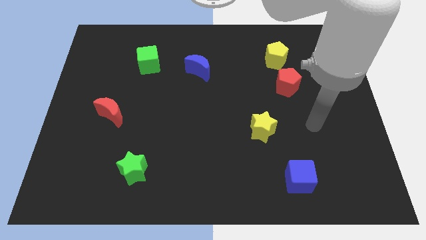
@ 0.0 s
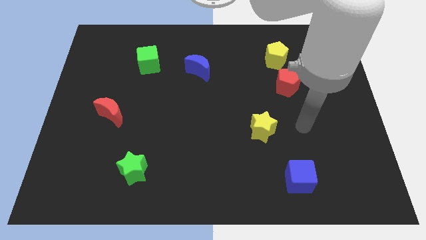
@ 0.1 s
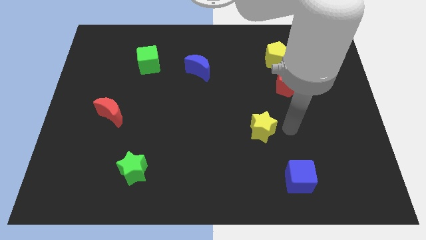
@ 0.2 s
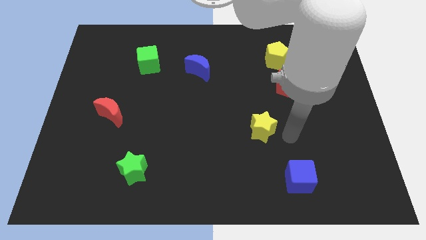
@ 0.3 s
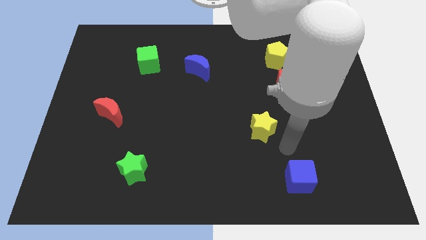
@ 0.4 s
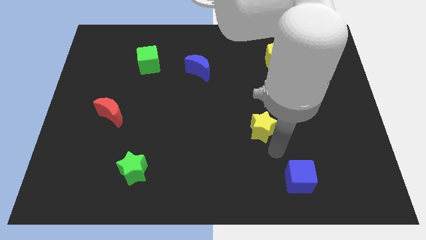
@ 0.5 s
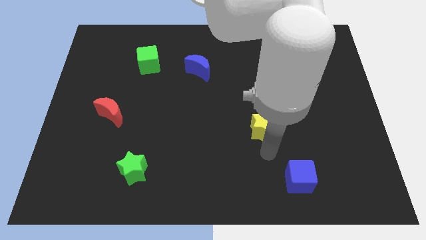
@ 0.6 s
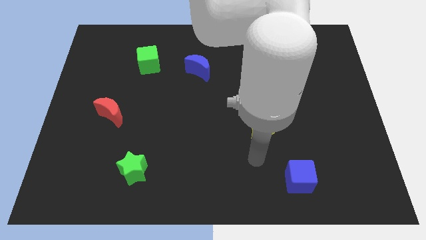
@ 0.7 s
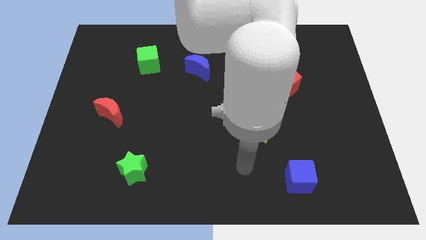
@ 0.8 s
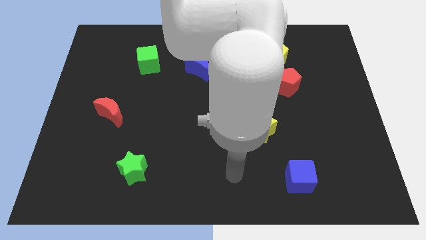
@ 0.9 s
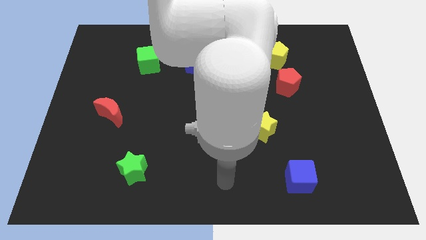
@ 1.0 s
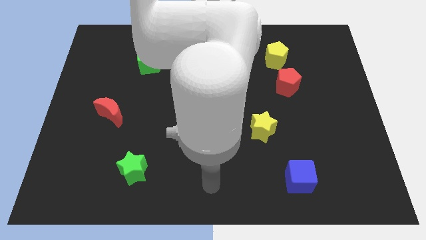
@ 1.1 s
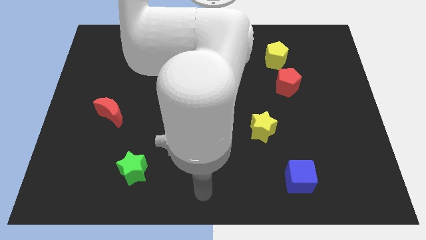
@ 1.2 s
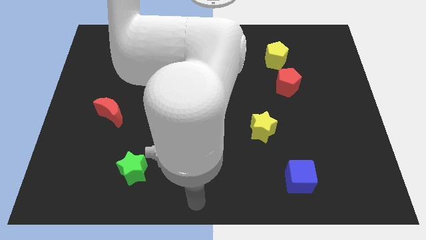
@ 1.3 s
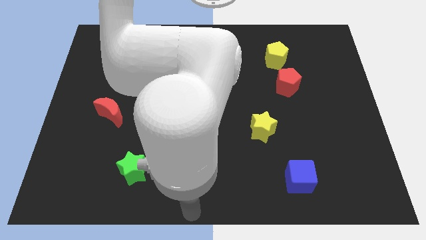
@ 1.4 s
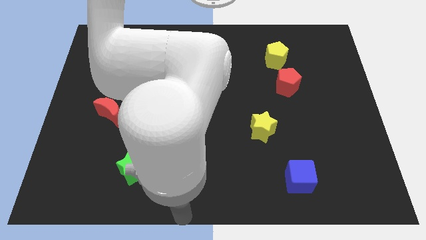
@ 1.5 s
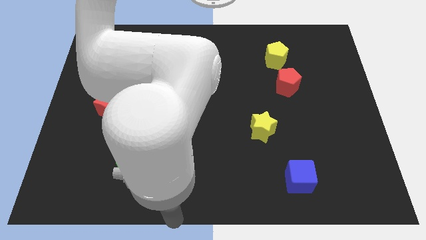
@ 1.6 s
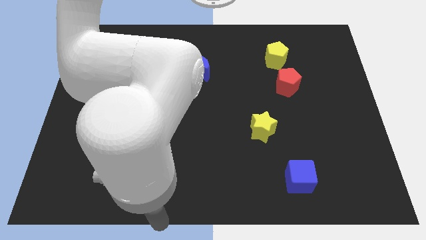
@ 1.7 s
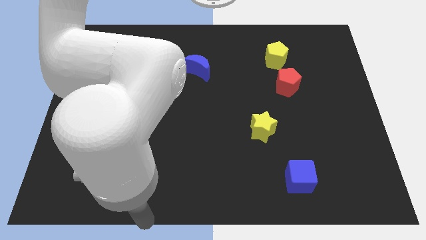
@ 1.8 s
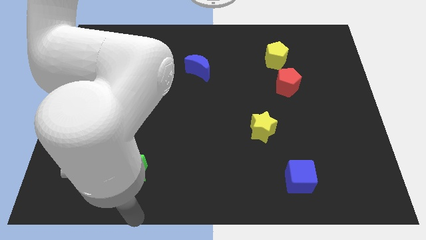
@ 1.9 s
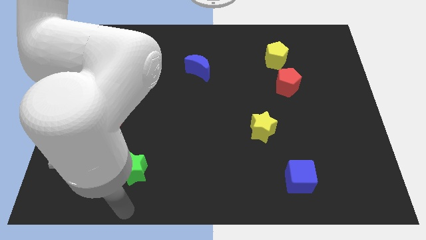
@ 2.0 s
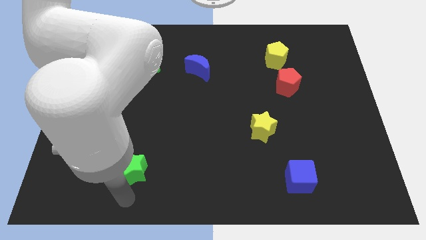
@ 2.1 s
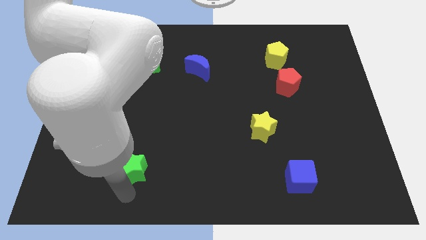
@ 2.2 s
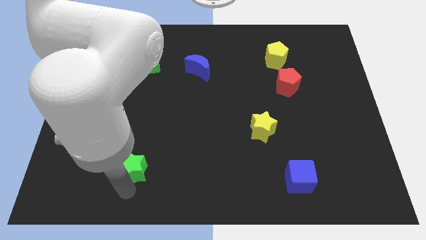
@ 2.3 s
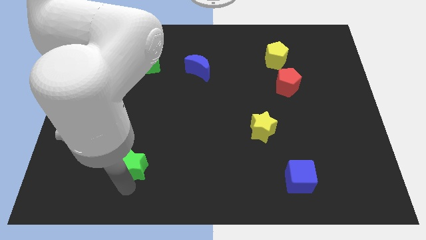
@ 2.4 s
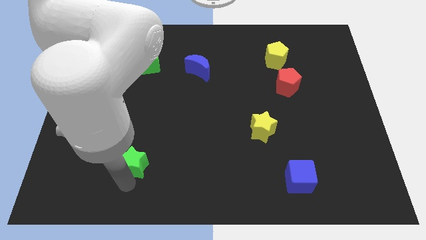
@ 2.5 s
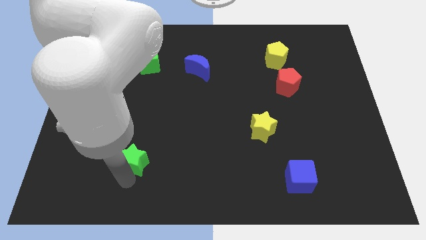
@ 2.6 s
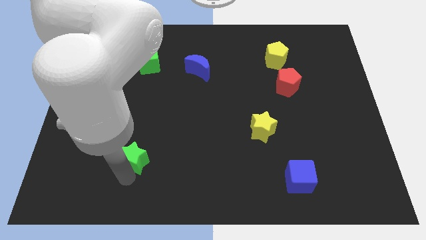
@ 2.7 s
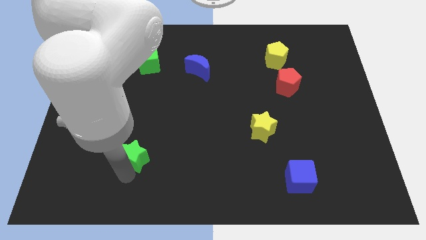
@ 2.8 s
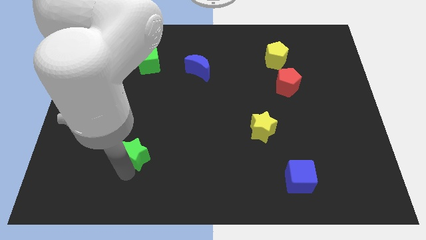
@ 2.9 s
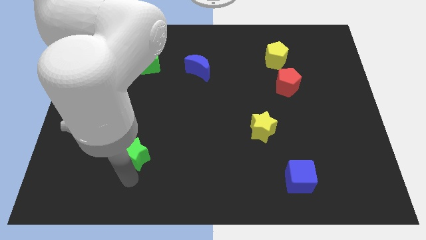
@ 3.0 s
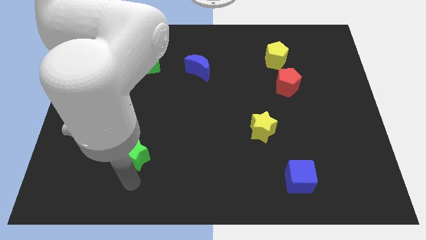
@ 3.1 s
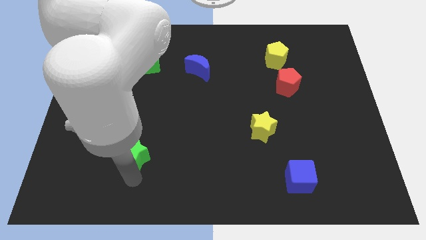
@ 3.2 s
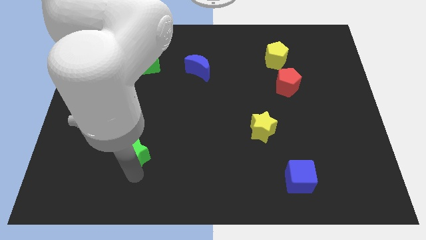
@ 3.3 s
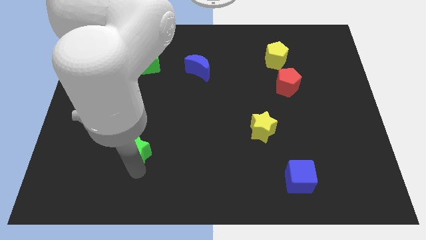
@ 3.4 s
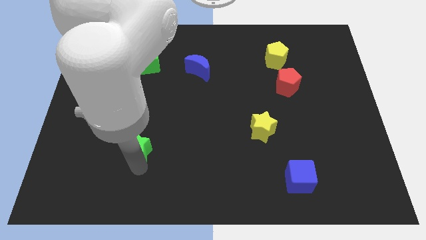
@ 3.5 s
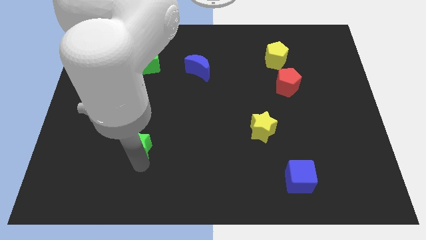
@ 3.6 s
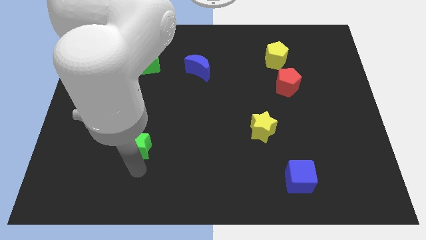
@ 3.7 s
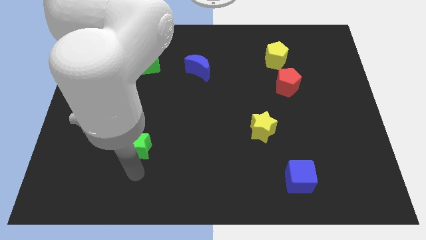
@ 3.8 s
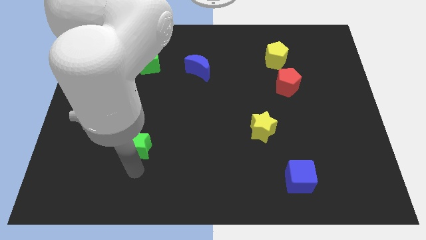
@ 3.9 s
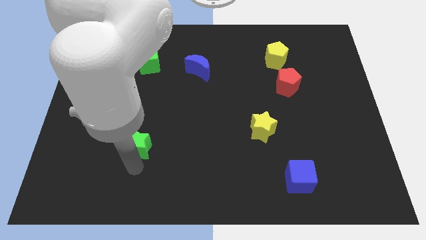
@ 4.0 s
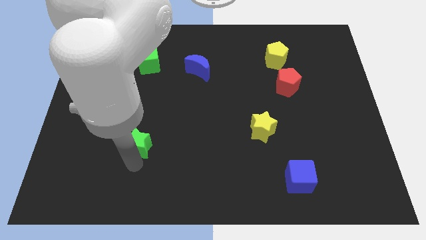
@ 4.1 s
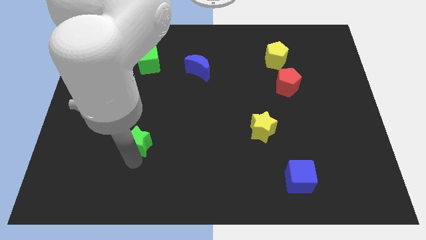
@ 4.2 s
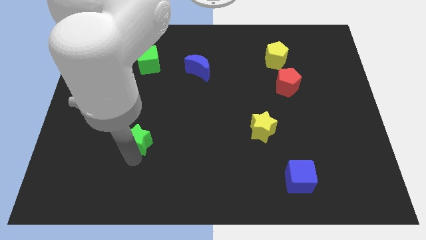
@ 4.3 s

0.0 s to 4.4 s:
slide the green star slightly upwards

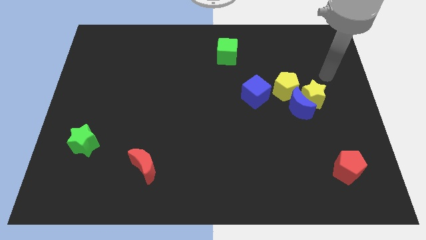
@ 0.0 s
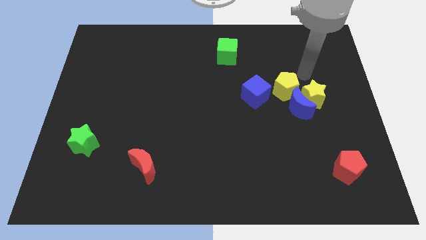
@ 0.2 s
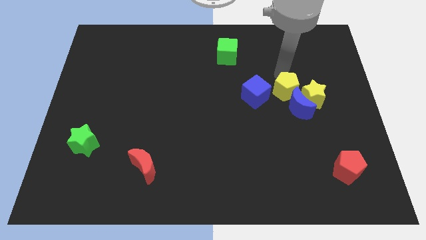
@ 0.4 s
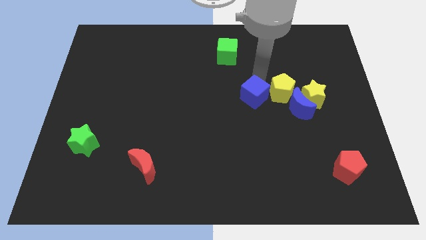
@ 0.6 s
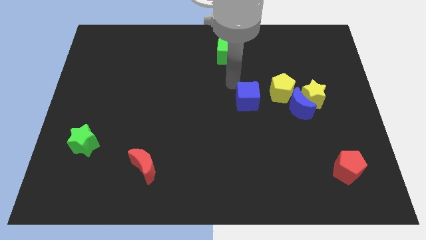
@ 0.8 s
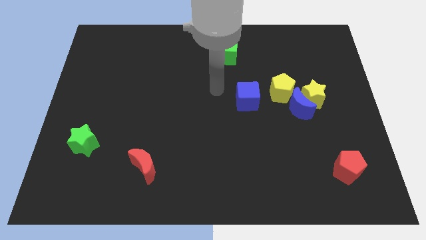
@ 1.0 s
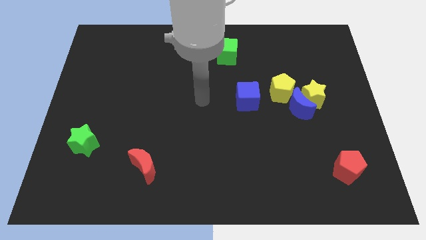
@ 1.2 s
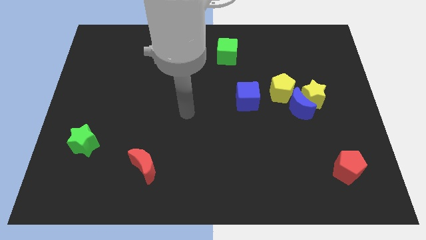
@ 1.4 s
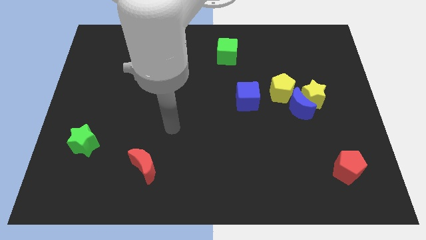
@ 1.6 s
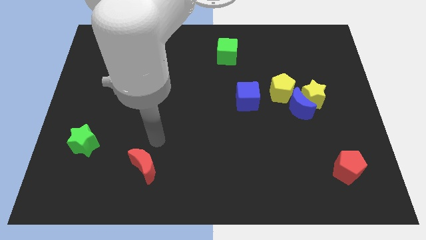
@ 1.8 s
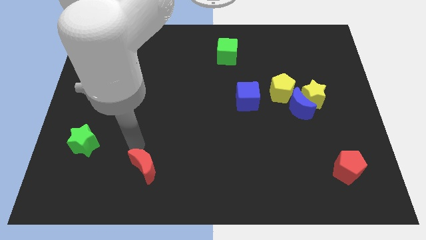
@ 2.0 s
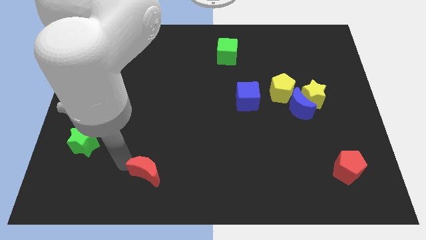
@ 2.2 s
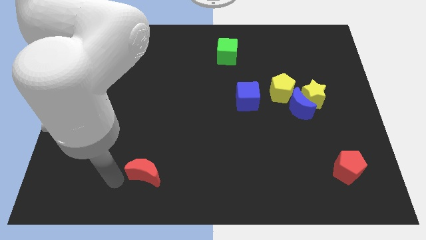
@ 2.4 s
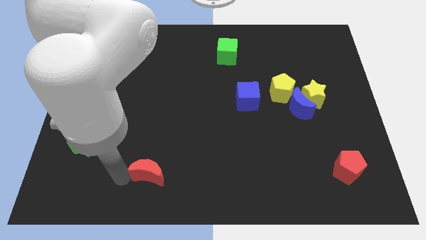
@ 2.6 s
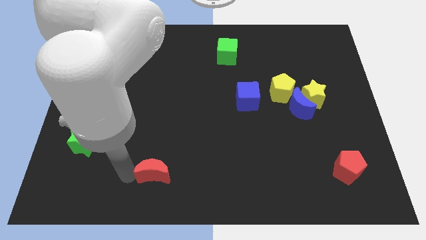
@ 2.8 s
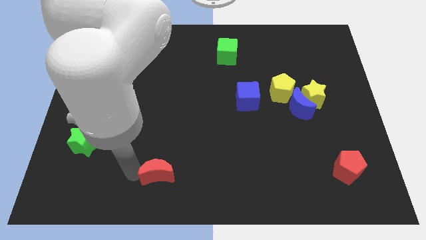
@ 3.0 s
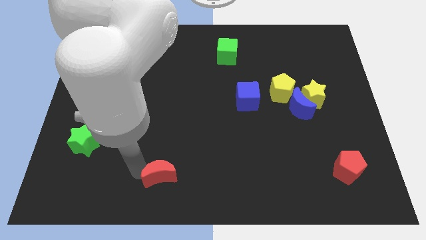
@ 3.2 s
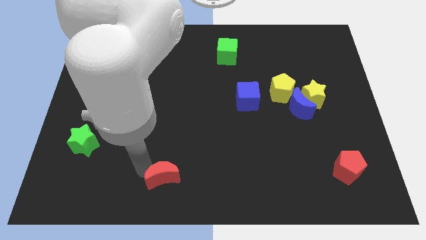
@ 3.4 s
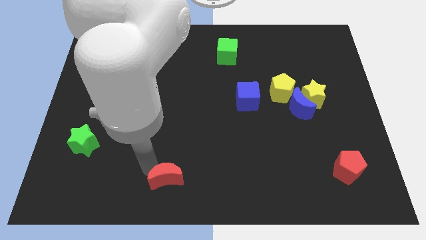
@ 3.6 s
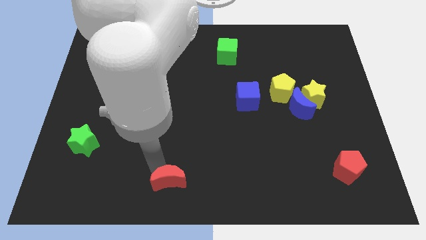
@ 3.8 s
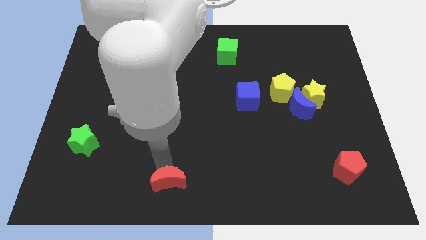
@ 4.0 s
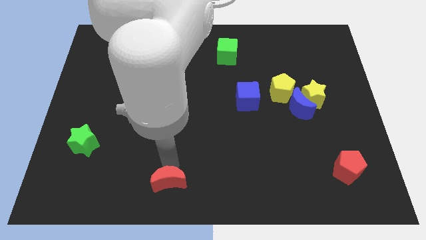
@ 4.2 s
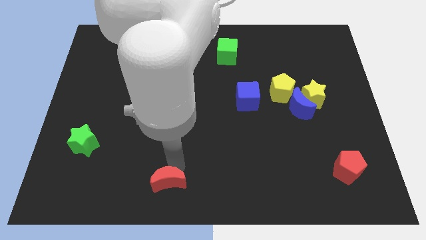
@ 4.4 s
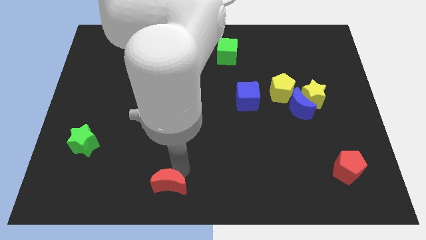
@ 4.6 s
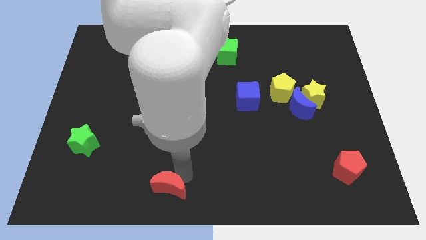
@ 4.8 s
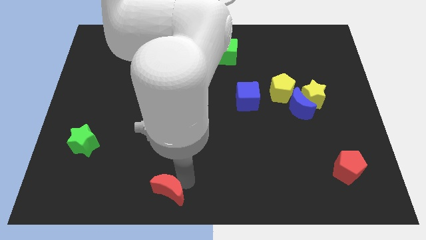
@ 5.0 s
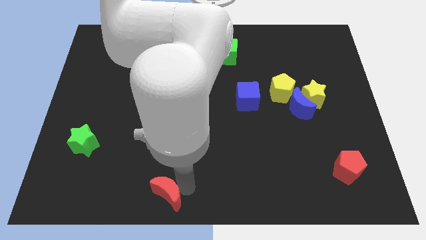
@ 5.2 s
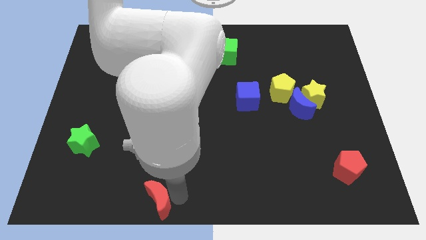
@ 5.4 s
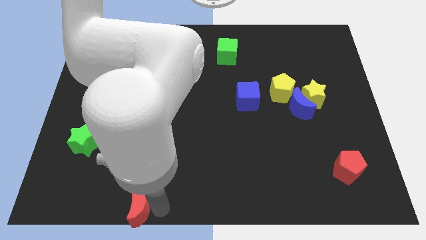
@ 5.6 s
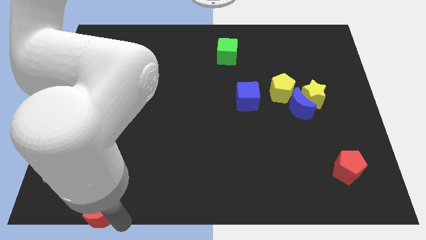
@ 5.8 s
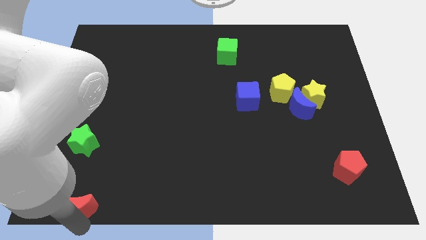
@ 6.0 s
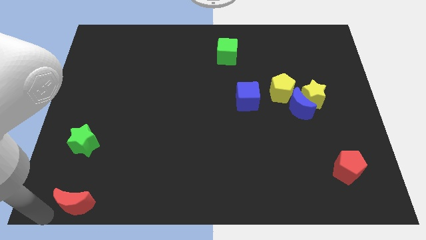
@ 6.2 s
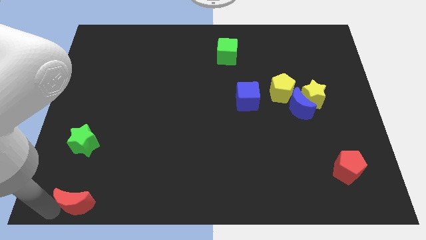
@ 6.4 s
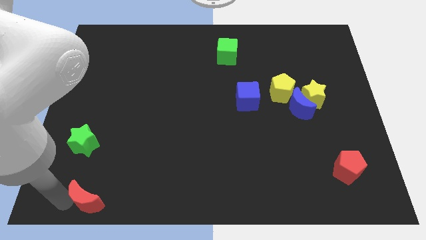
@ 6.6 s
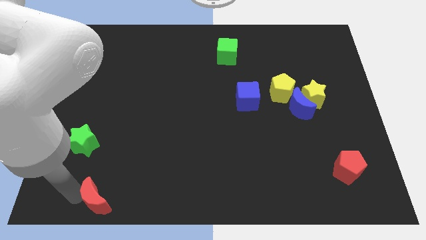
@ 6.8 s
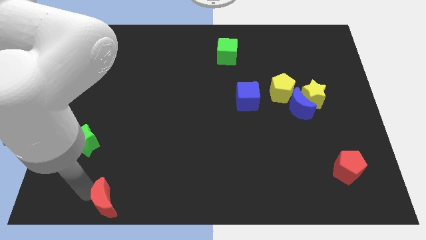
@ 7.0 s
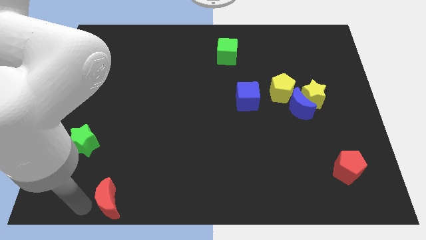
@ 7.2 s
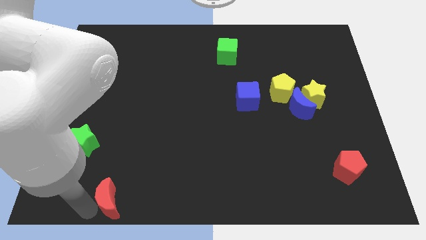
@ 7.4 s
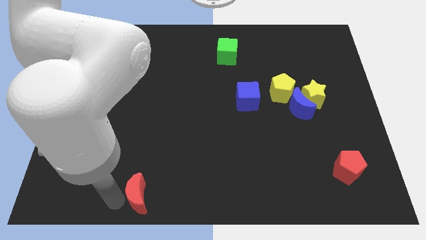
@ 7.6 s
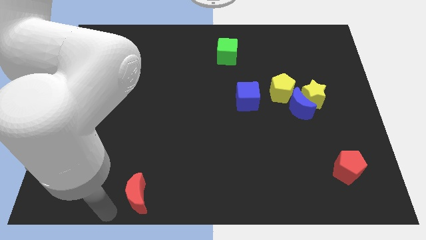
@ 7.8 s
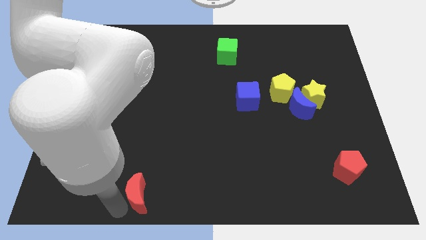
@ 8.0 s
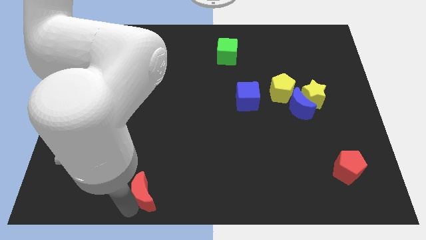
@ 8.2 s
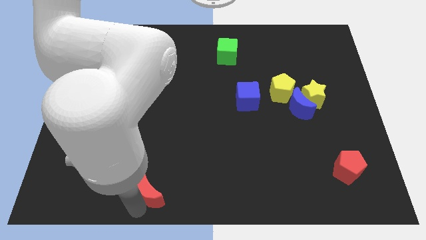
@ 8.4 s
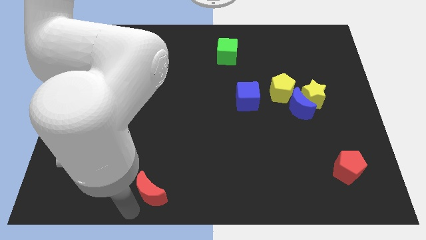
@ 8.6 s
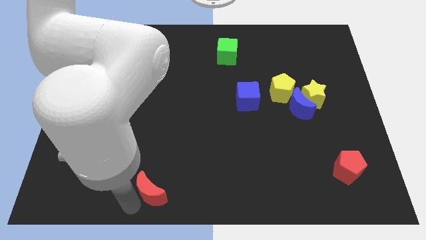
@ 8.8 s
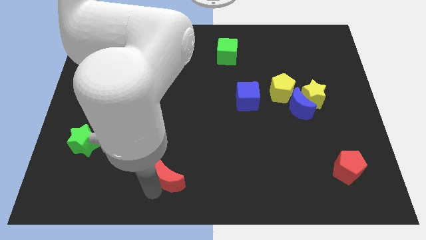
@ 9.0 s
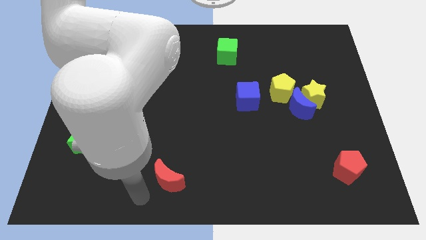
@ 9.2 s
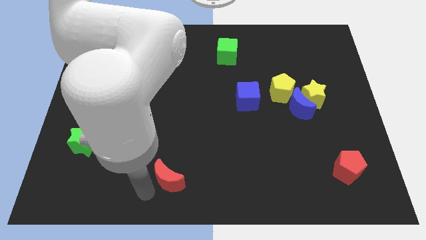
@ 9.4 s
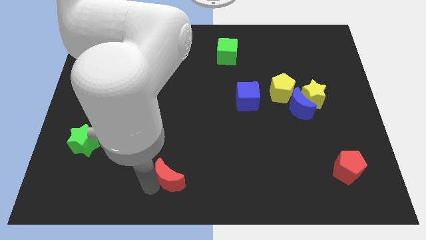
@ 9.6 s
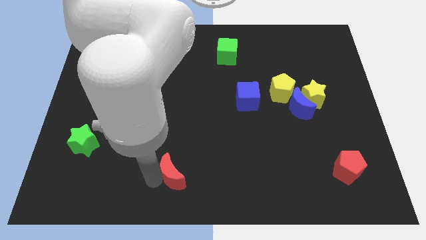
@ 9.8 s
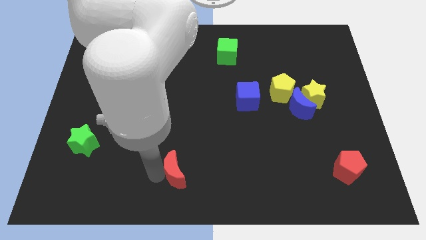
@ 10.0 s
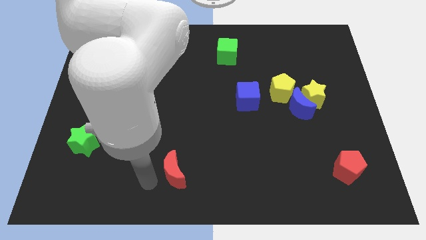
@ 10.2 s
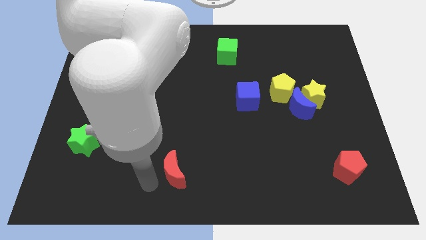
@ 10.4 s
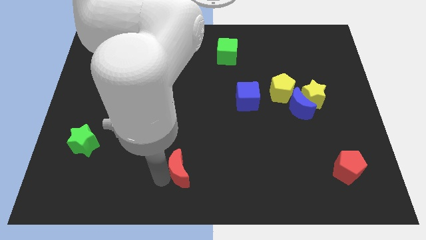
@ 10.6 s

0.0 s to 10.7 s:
slide the red moon somewhat to the right
